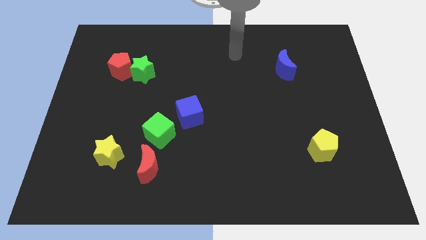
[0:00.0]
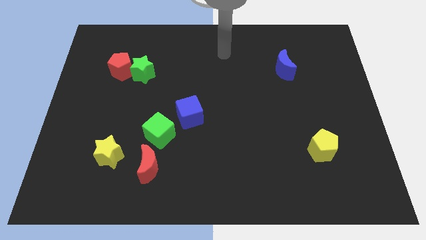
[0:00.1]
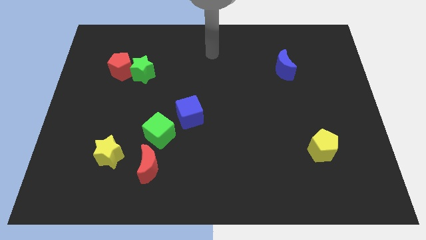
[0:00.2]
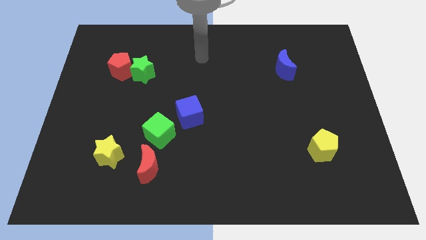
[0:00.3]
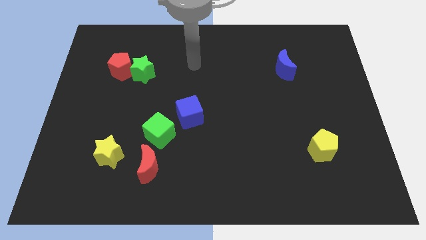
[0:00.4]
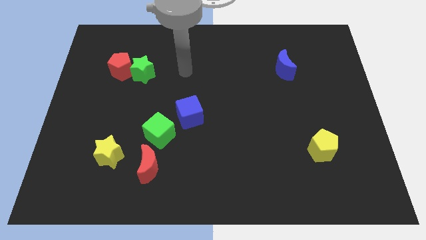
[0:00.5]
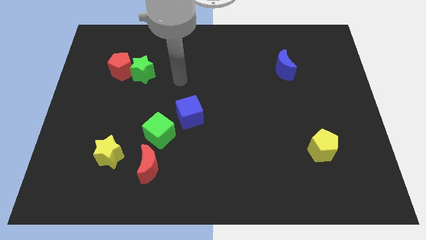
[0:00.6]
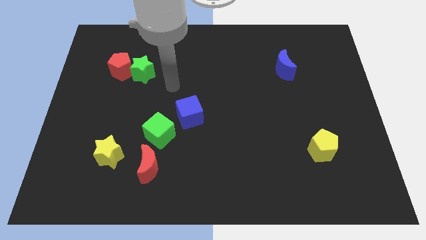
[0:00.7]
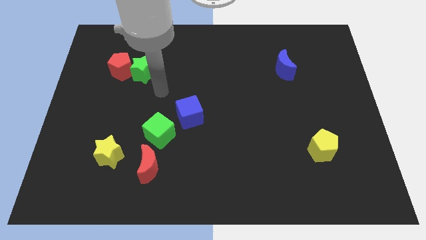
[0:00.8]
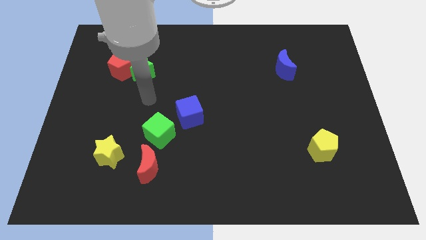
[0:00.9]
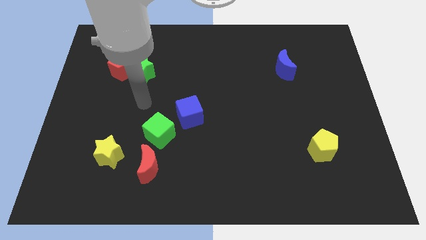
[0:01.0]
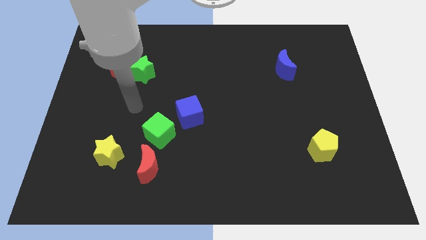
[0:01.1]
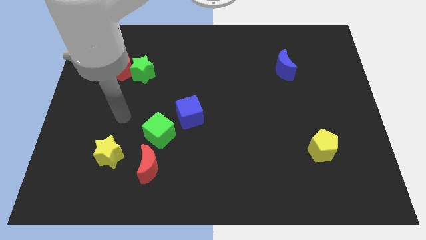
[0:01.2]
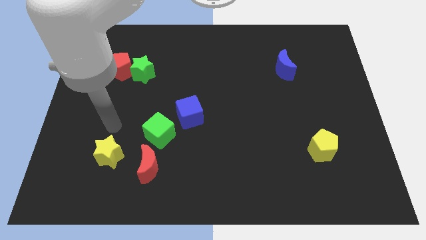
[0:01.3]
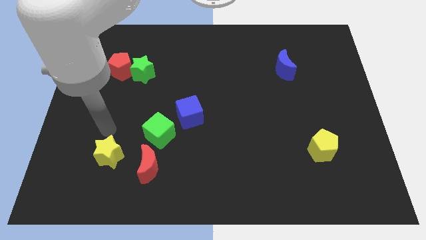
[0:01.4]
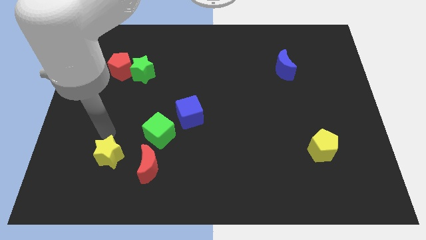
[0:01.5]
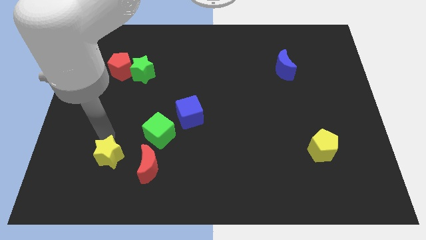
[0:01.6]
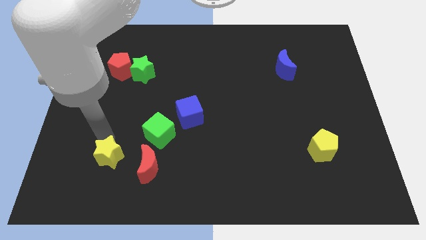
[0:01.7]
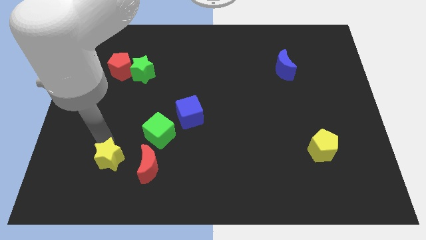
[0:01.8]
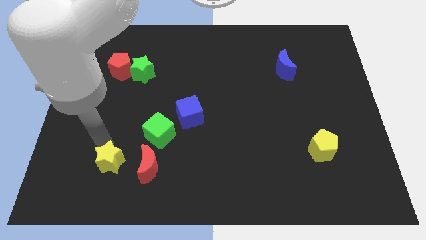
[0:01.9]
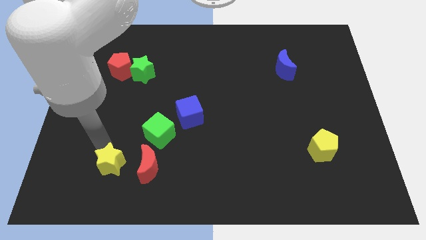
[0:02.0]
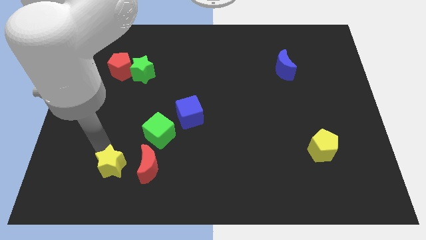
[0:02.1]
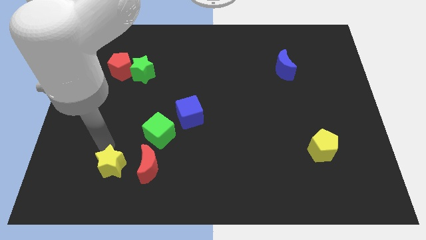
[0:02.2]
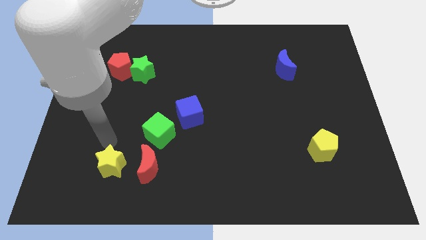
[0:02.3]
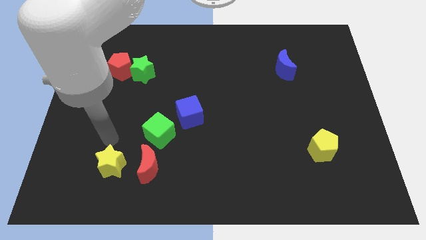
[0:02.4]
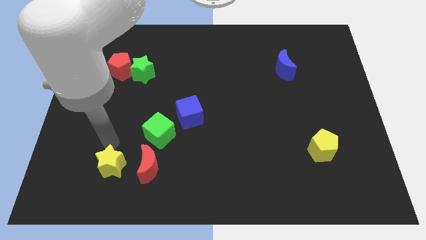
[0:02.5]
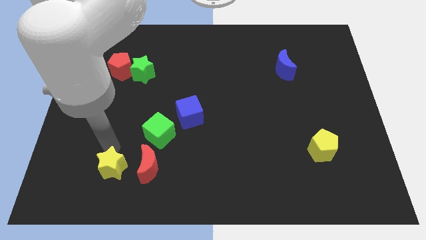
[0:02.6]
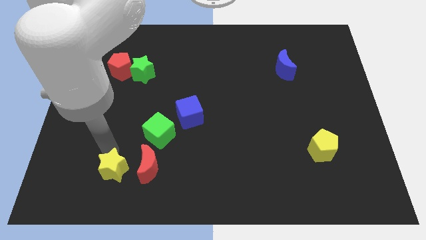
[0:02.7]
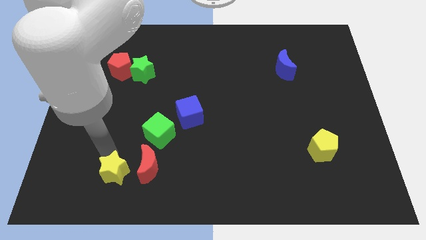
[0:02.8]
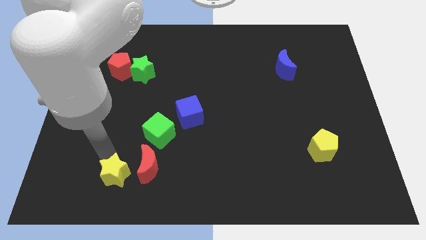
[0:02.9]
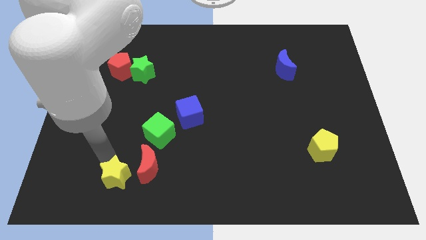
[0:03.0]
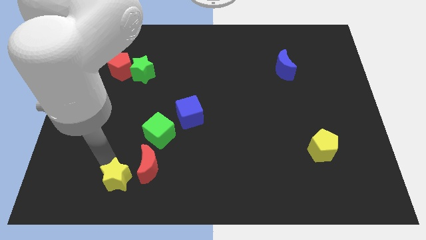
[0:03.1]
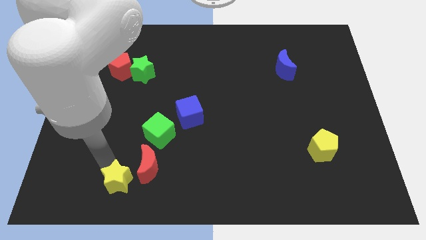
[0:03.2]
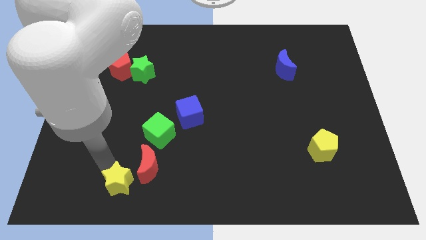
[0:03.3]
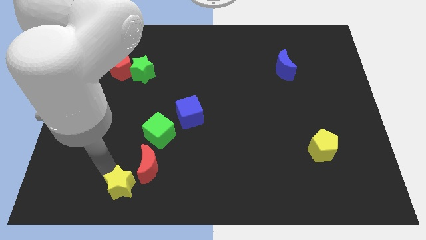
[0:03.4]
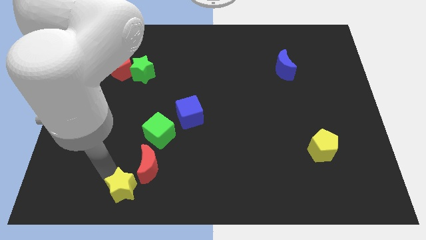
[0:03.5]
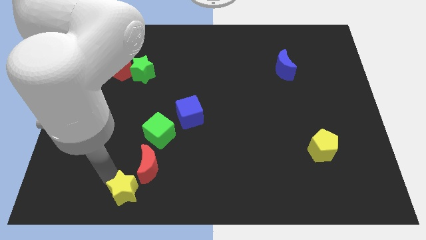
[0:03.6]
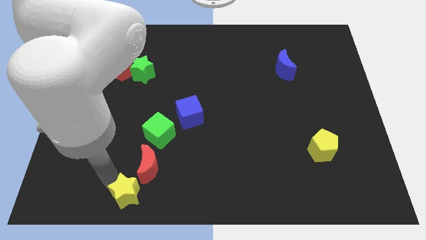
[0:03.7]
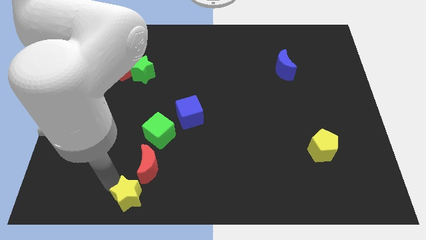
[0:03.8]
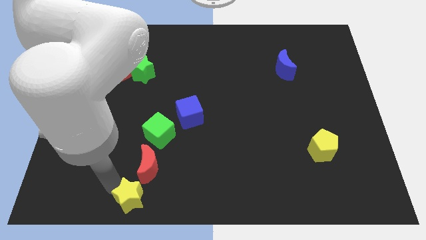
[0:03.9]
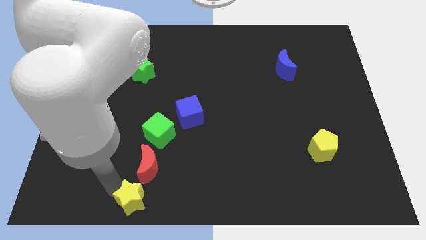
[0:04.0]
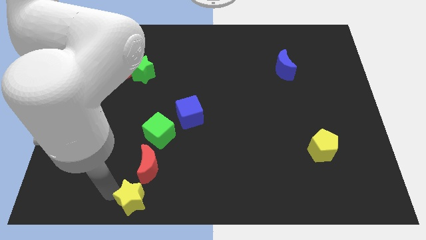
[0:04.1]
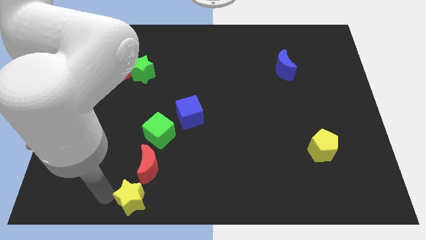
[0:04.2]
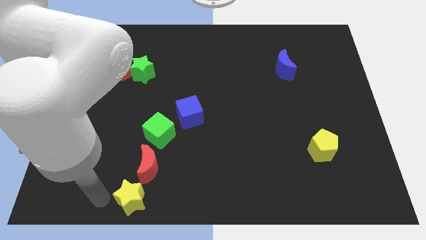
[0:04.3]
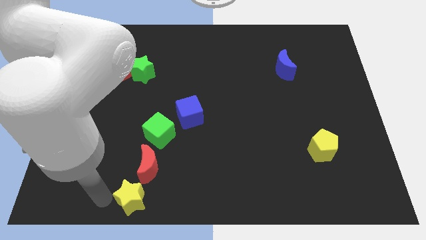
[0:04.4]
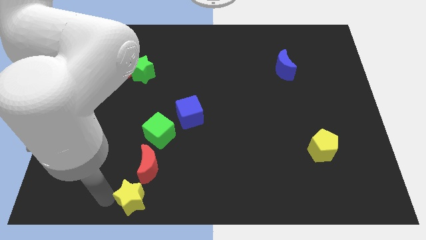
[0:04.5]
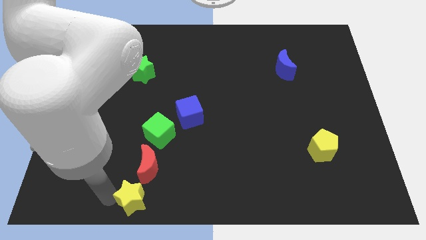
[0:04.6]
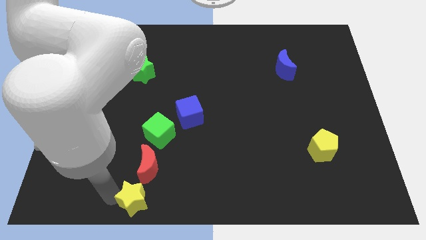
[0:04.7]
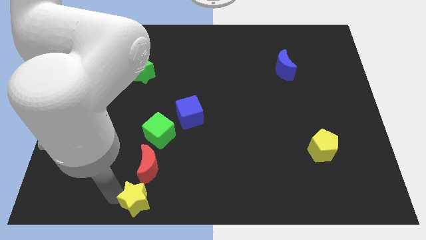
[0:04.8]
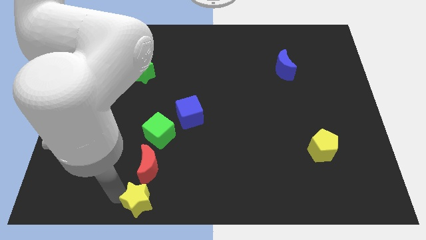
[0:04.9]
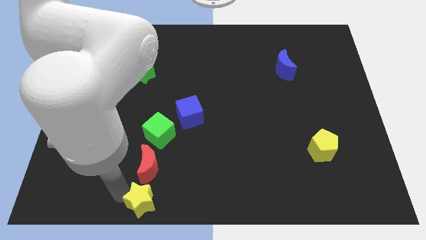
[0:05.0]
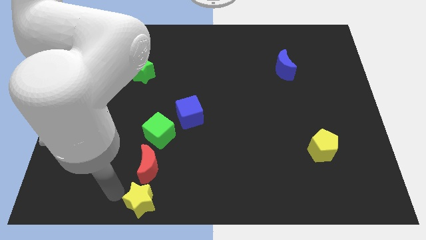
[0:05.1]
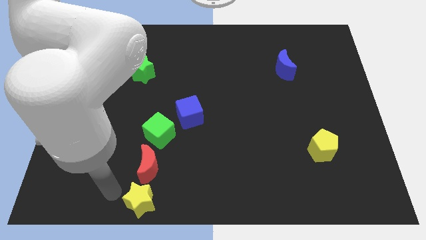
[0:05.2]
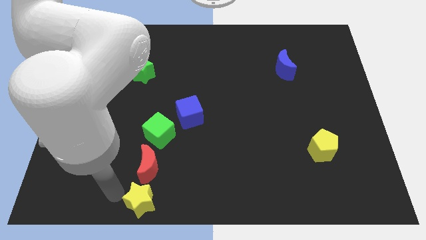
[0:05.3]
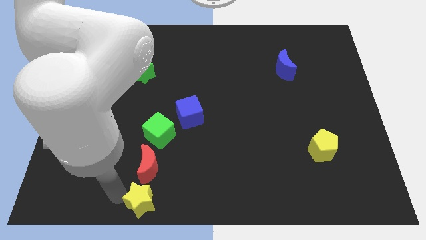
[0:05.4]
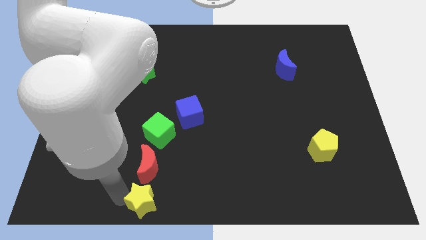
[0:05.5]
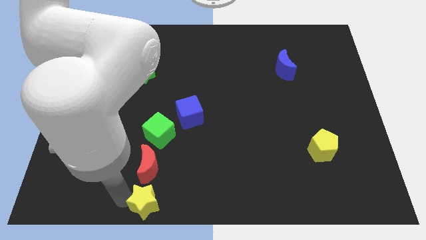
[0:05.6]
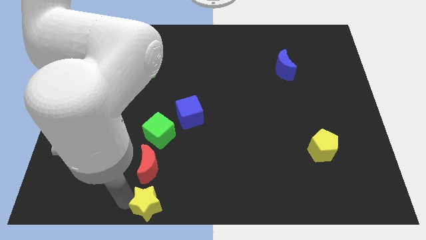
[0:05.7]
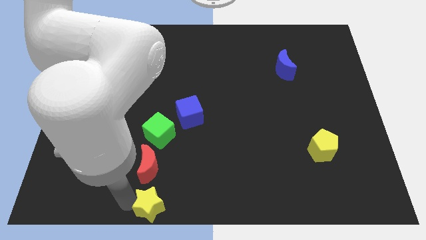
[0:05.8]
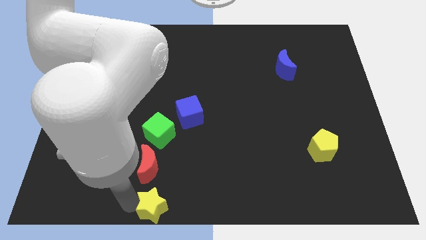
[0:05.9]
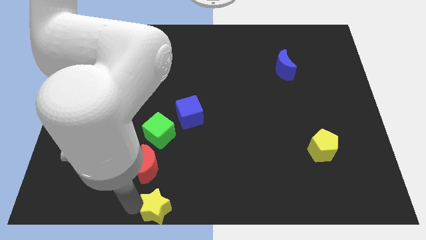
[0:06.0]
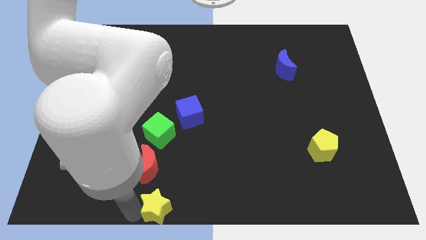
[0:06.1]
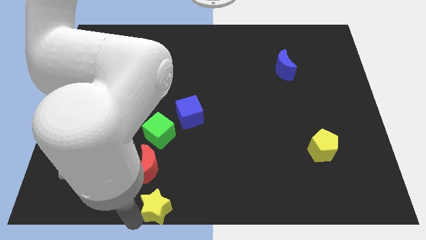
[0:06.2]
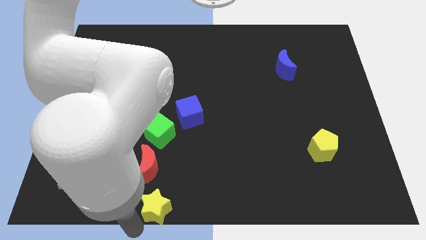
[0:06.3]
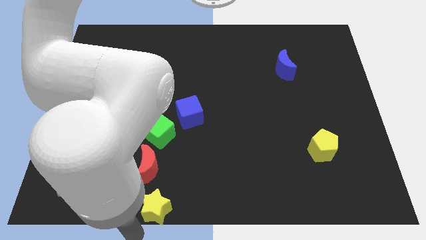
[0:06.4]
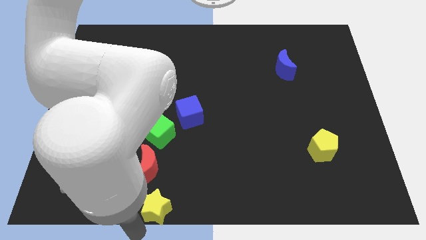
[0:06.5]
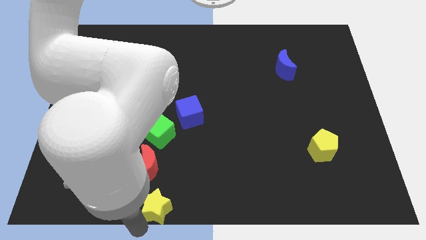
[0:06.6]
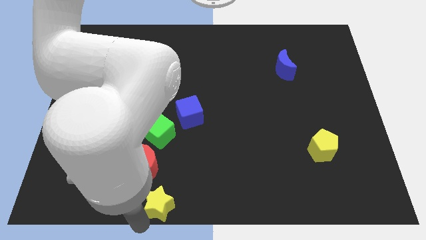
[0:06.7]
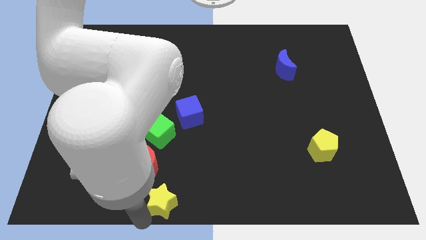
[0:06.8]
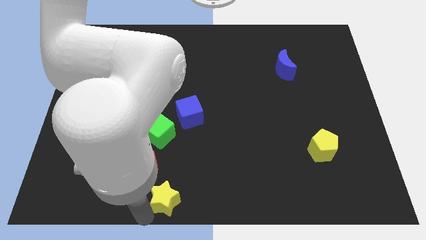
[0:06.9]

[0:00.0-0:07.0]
slide the yellow star a little bit to the right

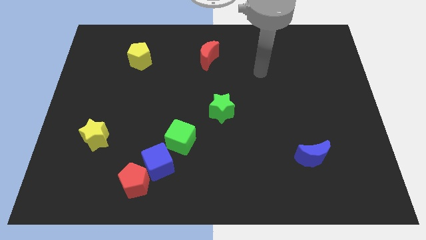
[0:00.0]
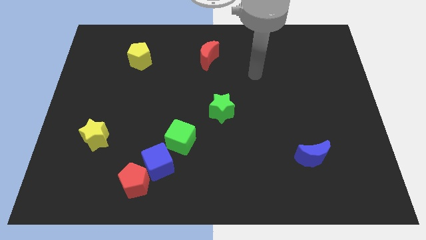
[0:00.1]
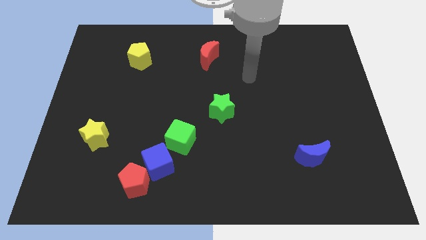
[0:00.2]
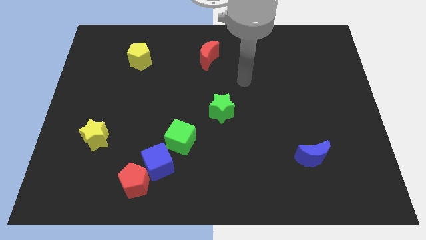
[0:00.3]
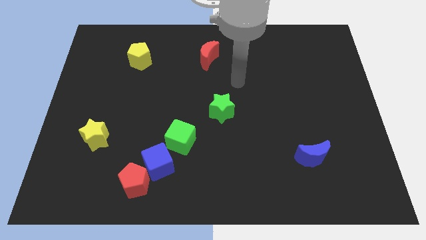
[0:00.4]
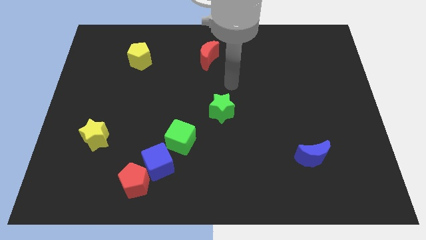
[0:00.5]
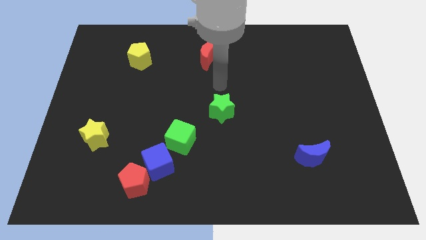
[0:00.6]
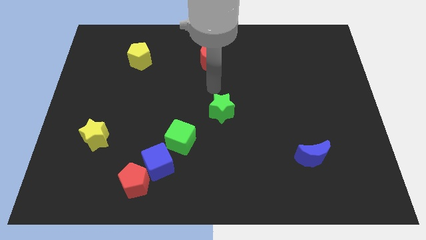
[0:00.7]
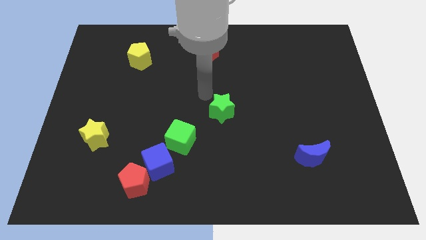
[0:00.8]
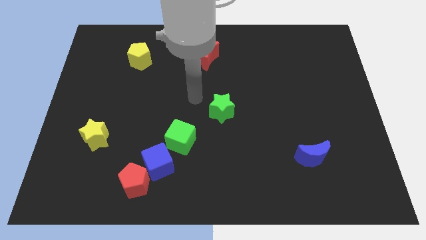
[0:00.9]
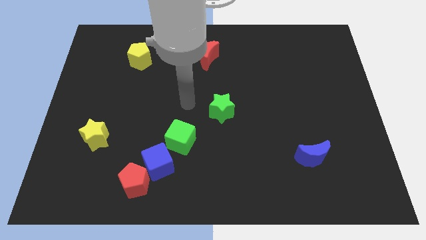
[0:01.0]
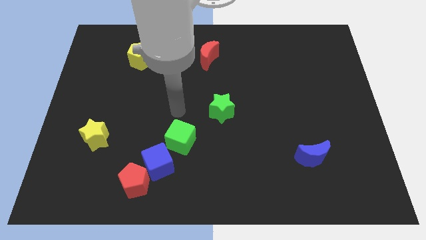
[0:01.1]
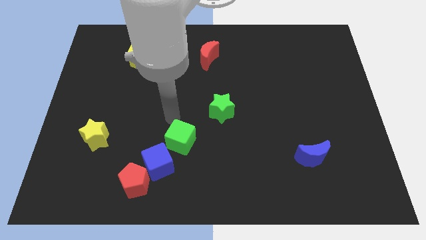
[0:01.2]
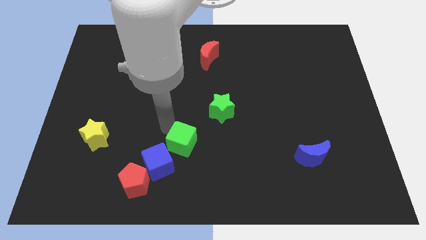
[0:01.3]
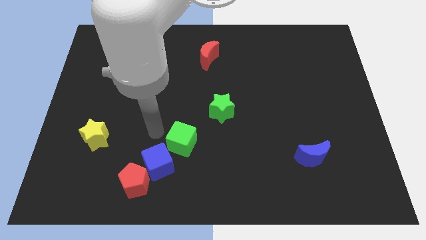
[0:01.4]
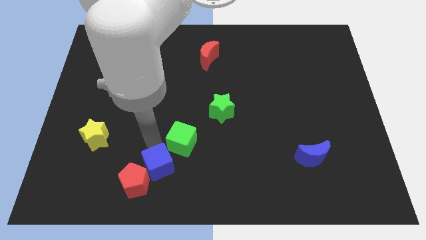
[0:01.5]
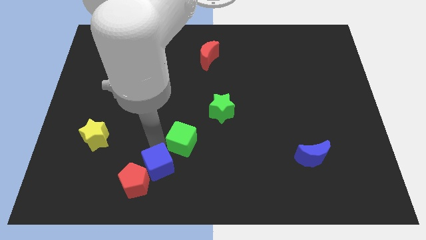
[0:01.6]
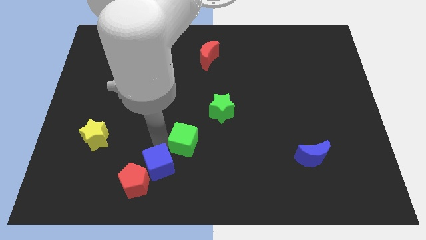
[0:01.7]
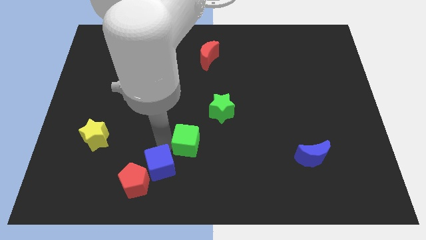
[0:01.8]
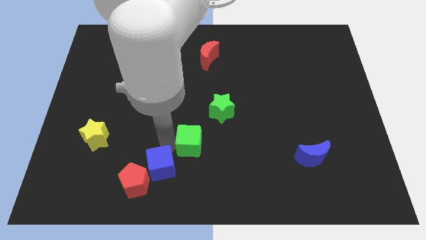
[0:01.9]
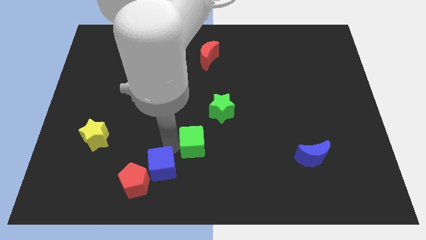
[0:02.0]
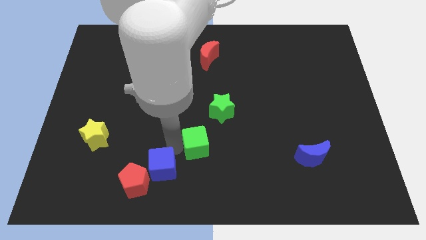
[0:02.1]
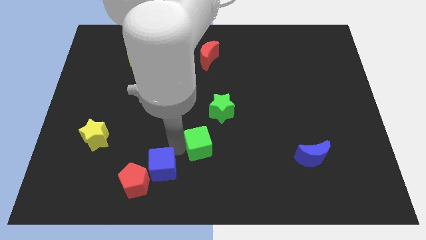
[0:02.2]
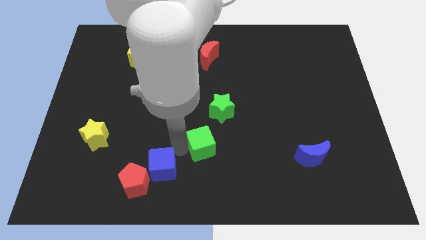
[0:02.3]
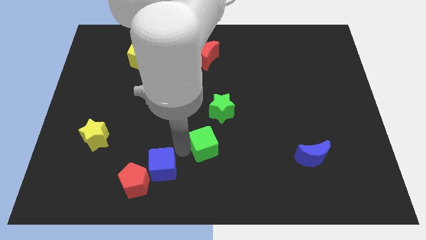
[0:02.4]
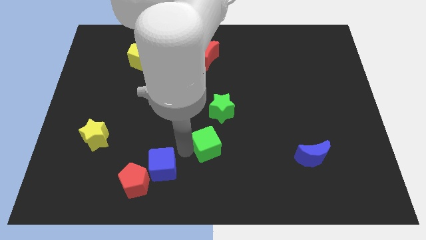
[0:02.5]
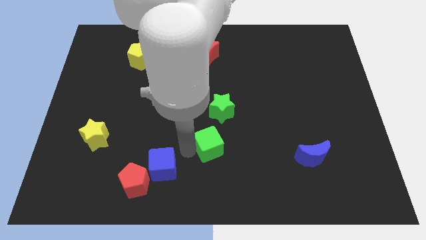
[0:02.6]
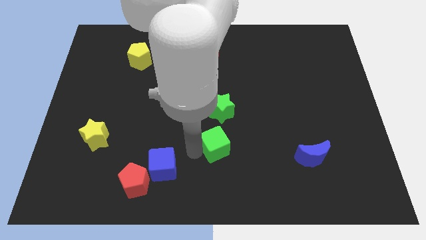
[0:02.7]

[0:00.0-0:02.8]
slide the green cube a little bit to the right
